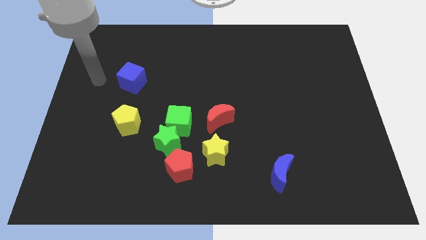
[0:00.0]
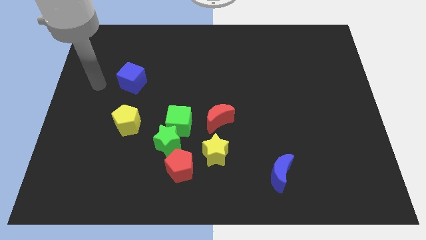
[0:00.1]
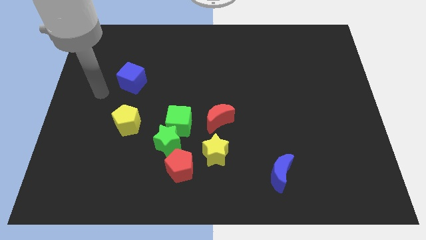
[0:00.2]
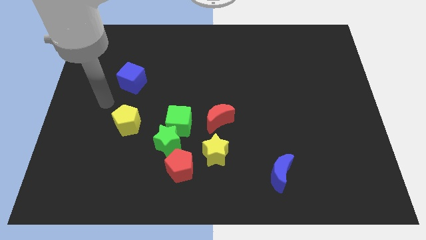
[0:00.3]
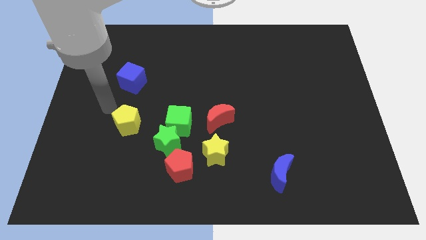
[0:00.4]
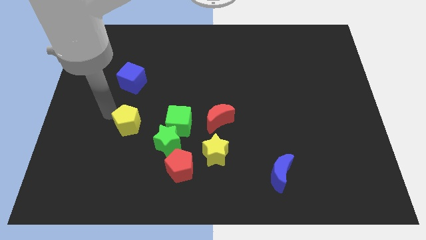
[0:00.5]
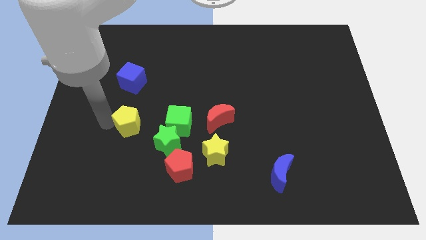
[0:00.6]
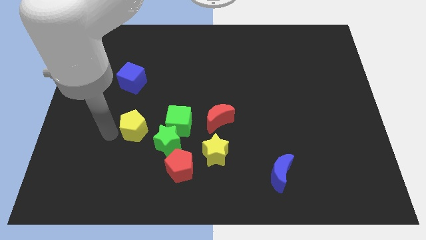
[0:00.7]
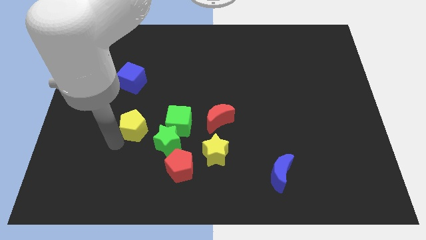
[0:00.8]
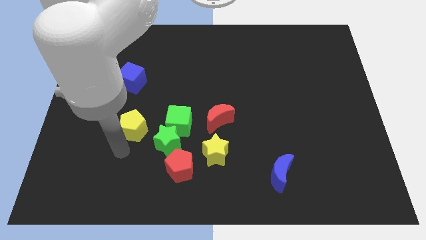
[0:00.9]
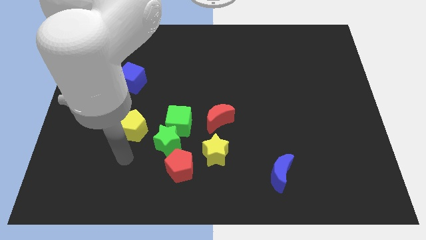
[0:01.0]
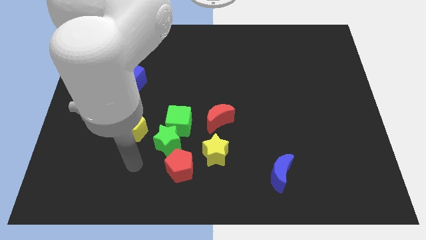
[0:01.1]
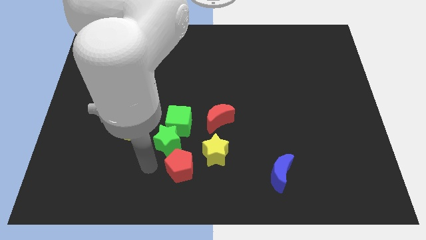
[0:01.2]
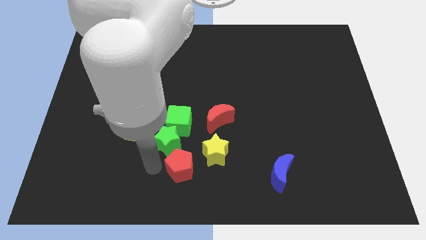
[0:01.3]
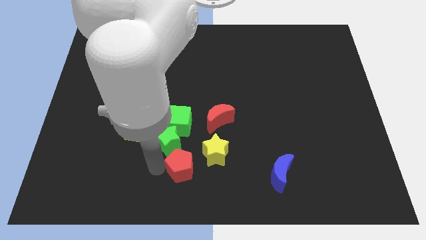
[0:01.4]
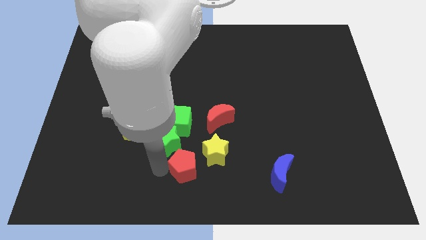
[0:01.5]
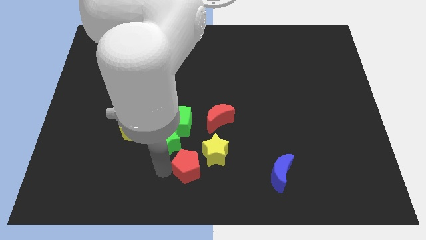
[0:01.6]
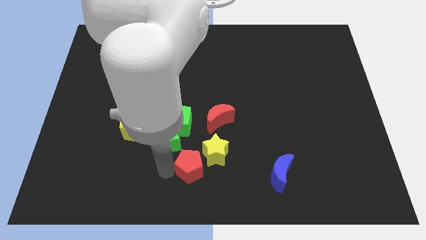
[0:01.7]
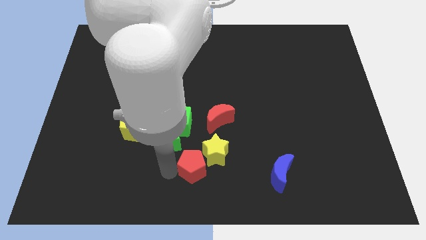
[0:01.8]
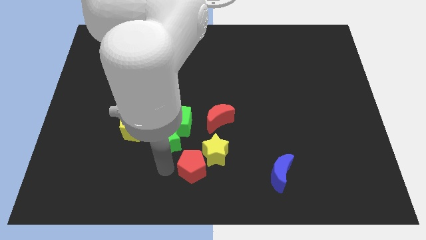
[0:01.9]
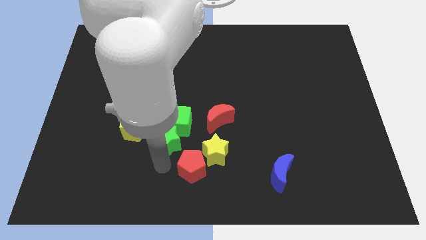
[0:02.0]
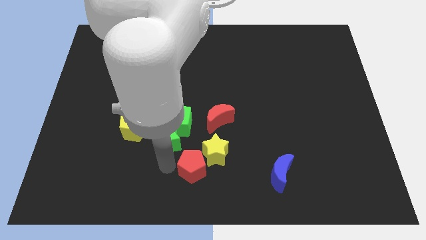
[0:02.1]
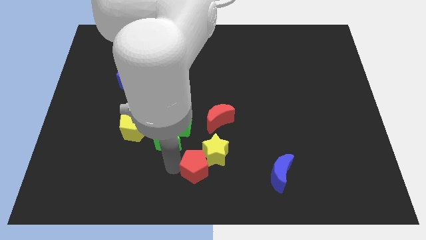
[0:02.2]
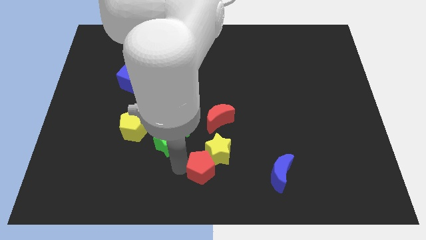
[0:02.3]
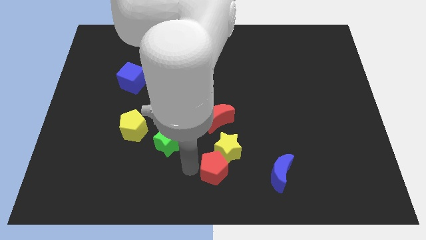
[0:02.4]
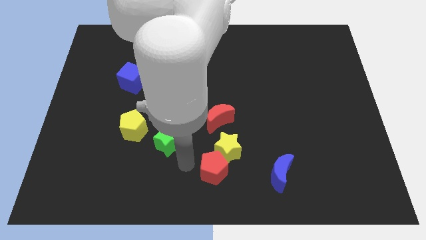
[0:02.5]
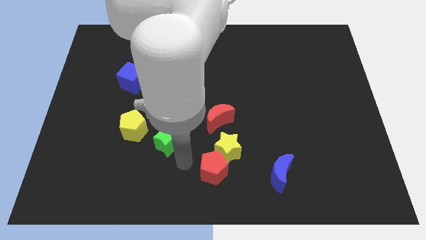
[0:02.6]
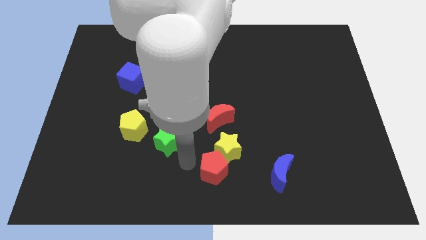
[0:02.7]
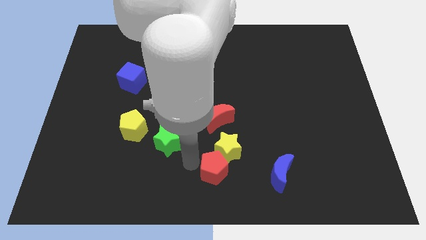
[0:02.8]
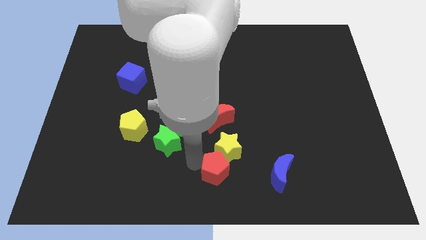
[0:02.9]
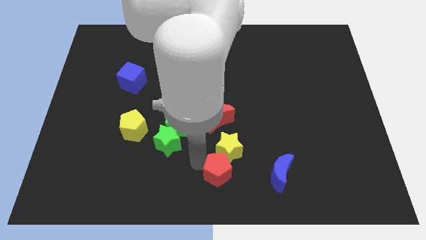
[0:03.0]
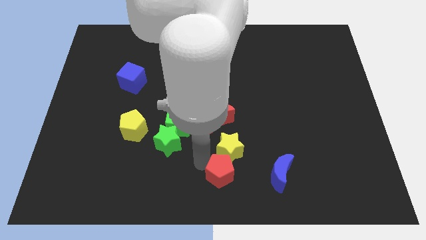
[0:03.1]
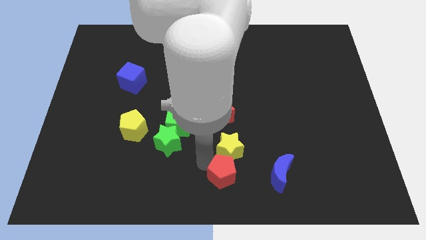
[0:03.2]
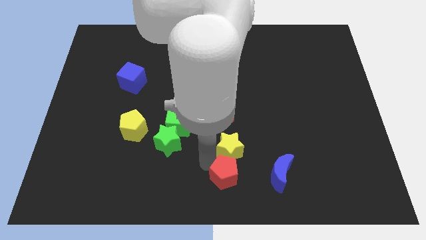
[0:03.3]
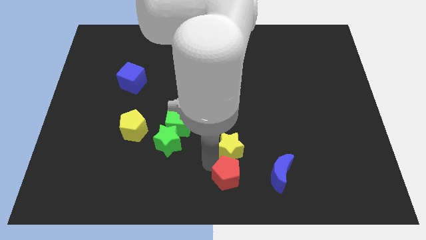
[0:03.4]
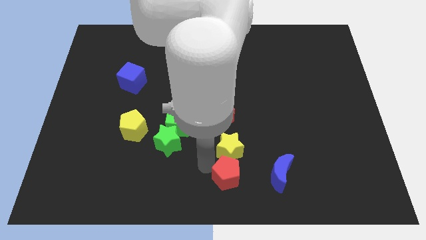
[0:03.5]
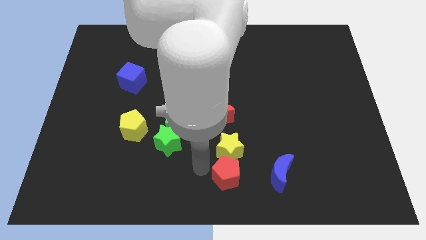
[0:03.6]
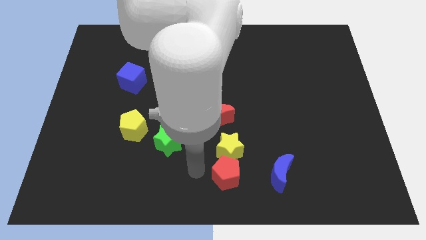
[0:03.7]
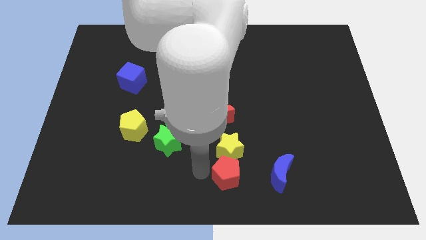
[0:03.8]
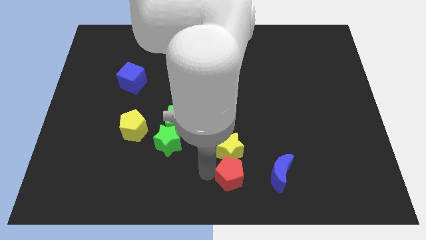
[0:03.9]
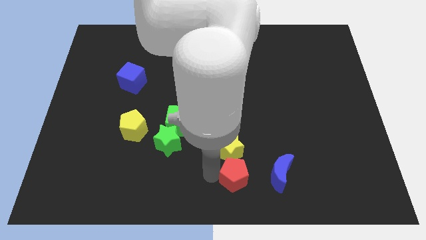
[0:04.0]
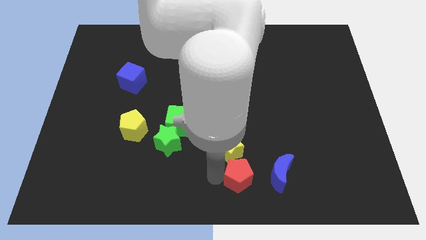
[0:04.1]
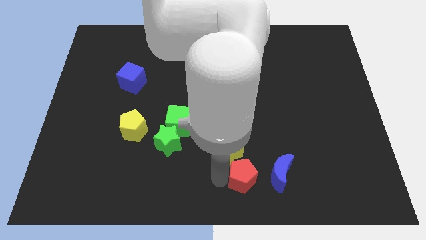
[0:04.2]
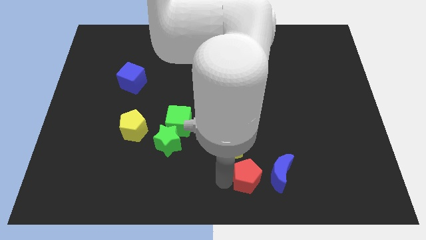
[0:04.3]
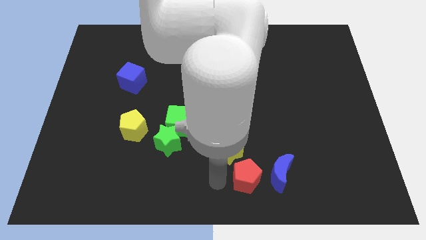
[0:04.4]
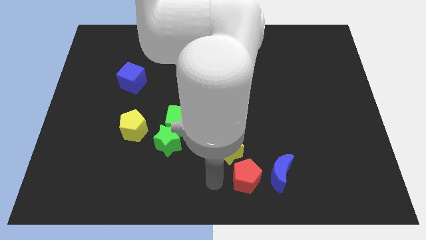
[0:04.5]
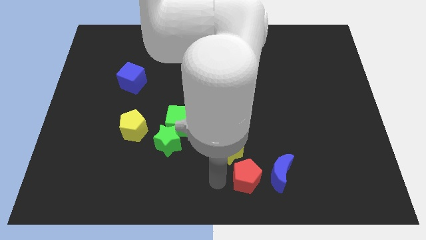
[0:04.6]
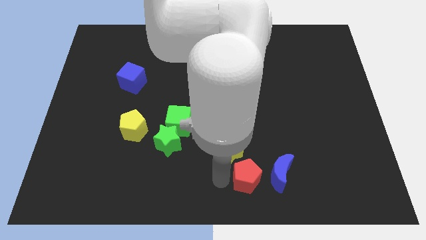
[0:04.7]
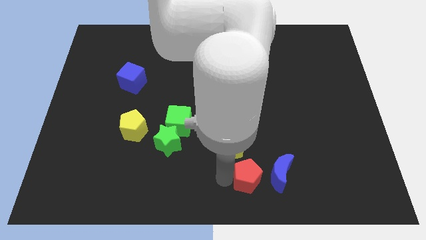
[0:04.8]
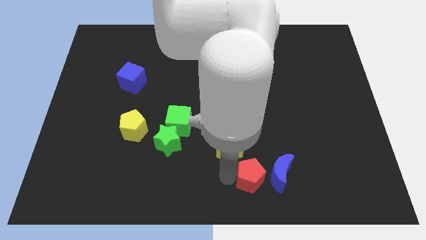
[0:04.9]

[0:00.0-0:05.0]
move the red pentagon close to the blue moon

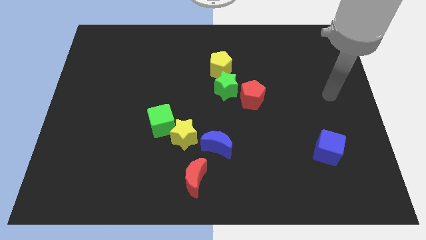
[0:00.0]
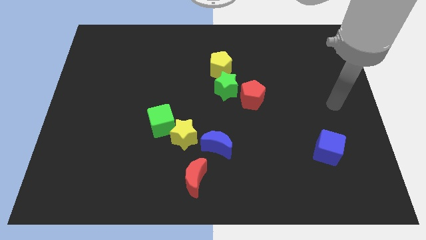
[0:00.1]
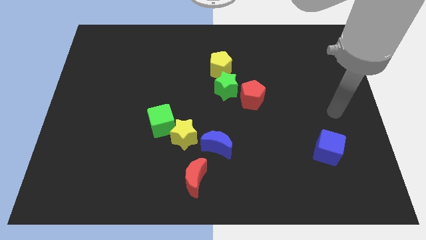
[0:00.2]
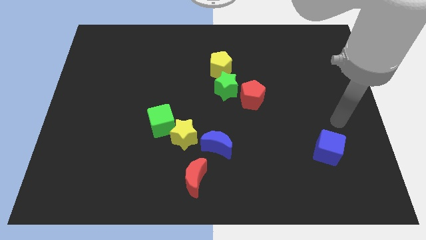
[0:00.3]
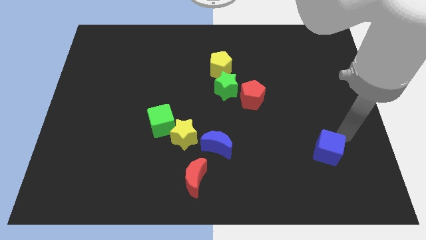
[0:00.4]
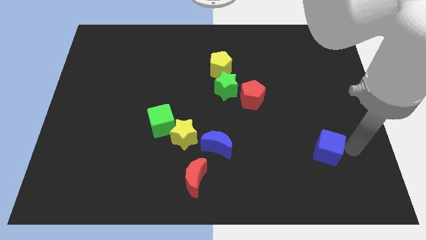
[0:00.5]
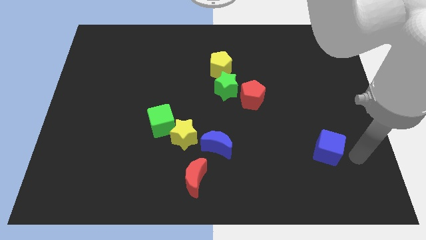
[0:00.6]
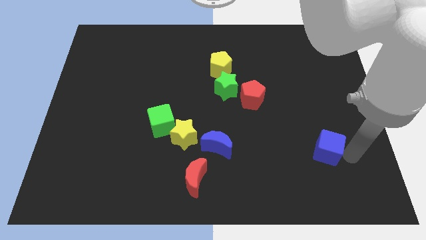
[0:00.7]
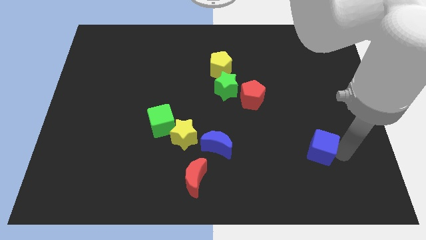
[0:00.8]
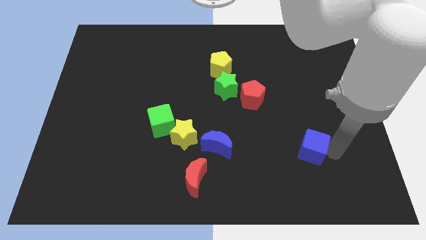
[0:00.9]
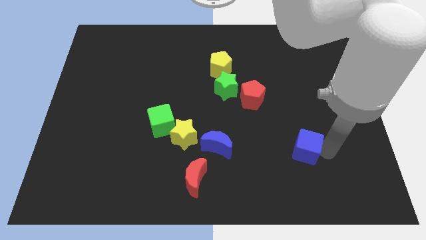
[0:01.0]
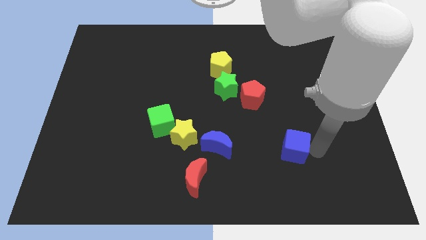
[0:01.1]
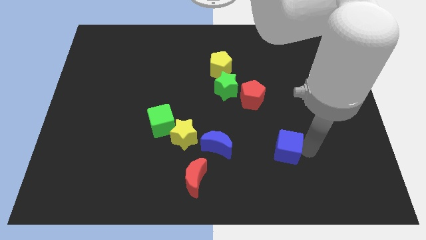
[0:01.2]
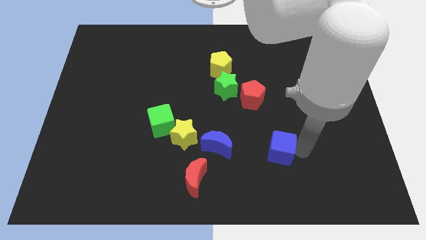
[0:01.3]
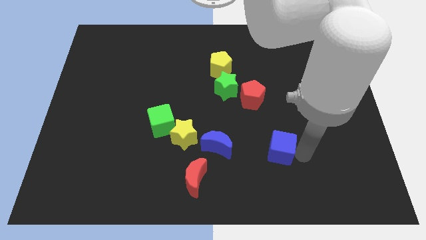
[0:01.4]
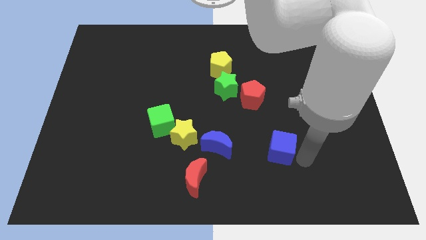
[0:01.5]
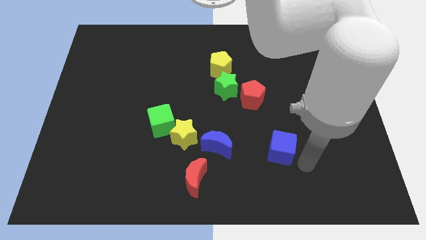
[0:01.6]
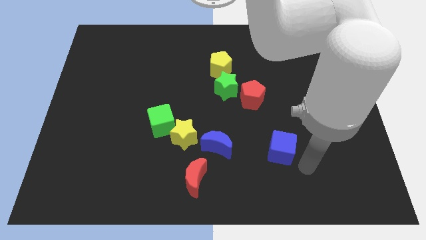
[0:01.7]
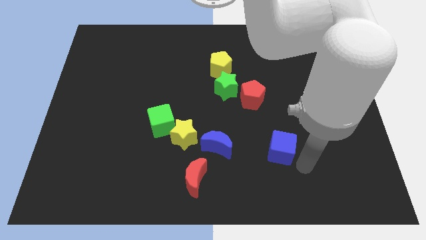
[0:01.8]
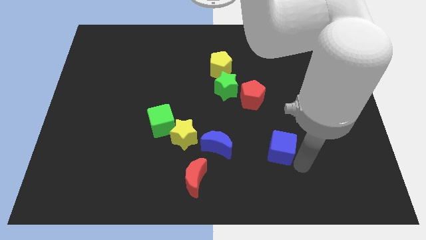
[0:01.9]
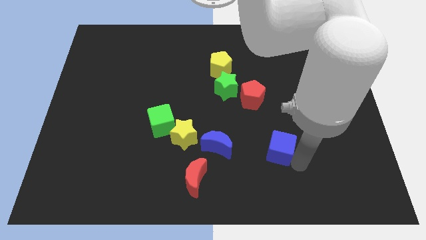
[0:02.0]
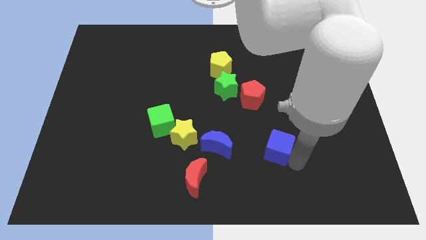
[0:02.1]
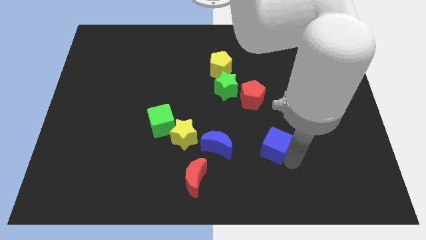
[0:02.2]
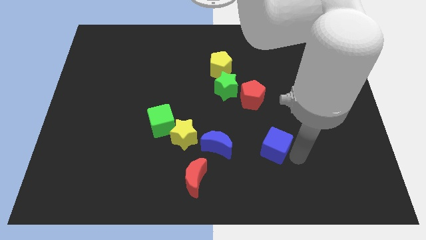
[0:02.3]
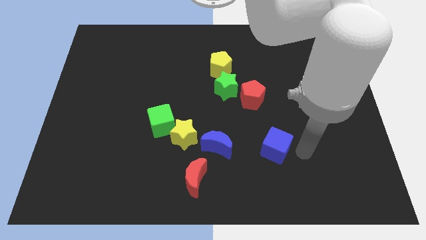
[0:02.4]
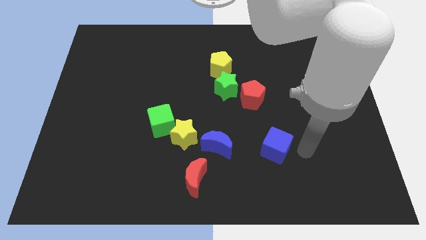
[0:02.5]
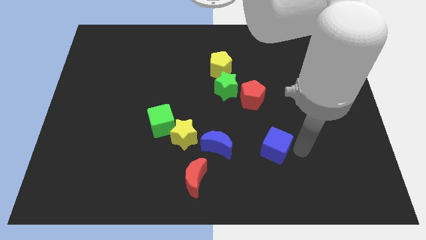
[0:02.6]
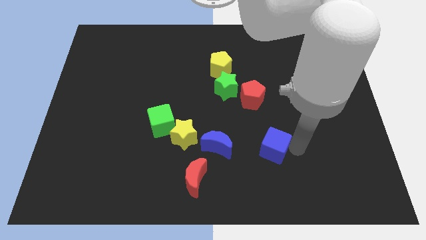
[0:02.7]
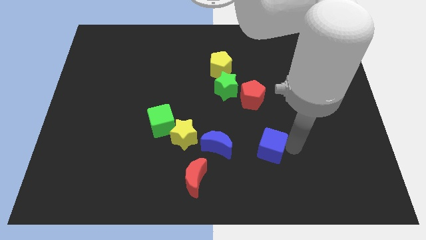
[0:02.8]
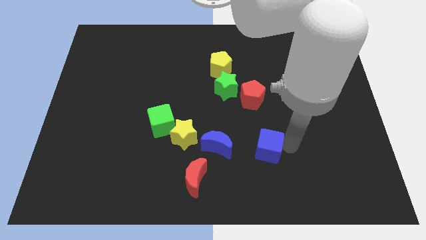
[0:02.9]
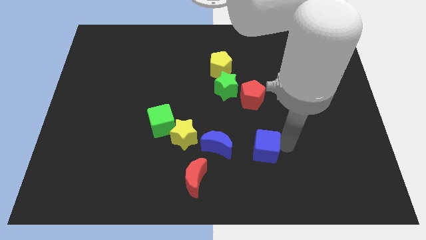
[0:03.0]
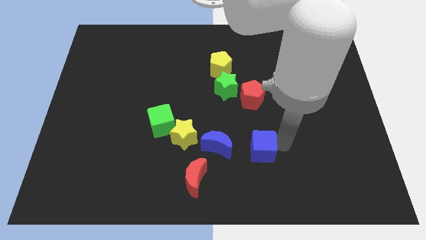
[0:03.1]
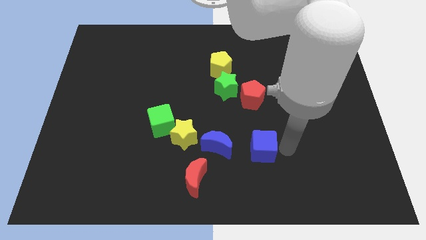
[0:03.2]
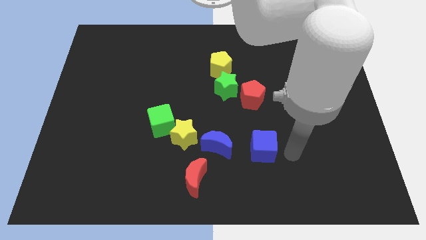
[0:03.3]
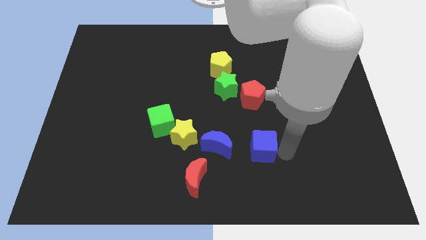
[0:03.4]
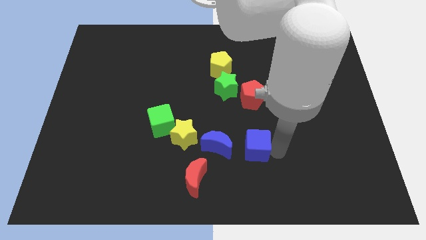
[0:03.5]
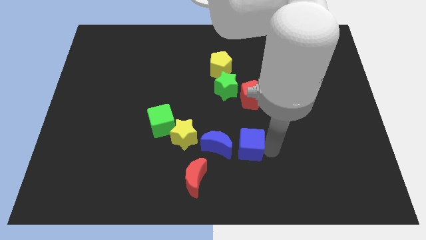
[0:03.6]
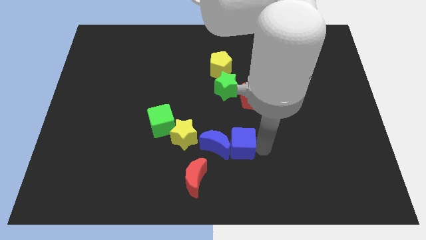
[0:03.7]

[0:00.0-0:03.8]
slide the blue cube close to the blue moon
